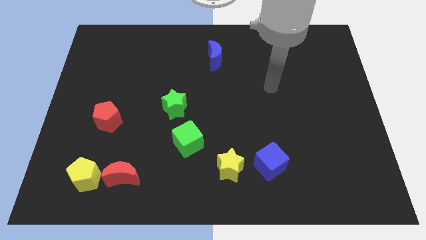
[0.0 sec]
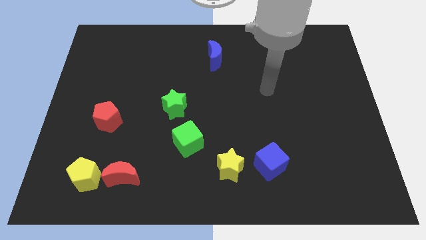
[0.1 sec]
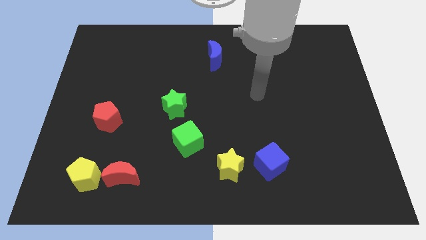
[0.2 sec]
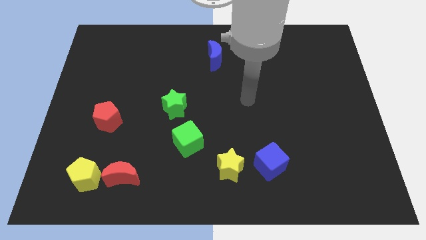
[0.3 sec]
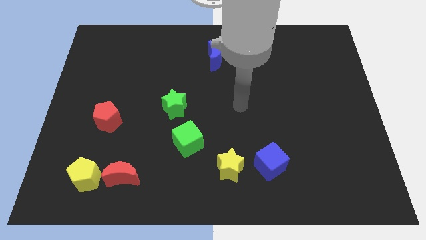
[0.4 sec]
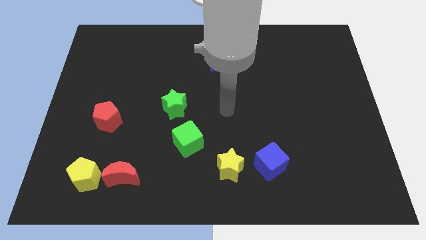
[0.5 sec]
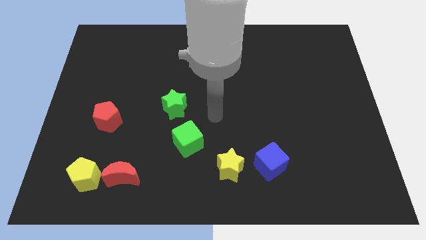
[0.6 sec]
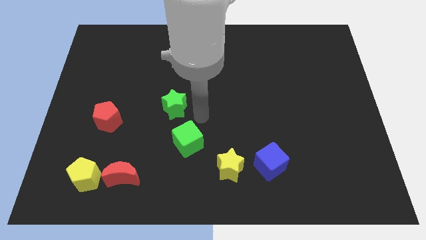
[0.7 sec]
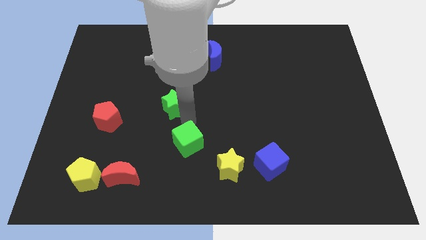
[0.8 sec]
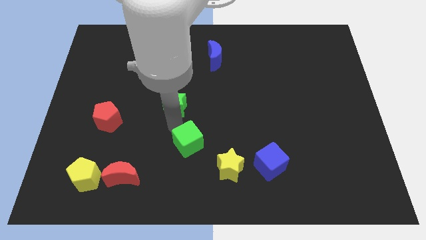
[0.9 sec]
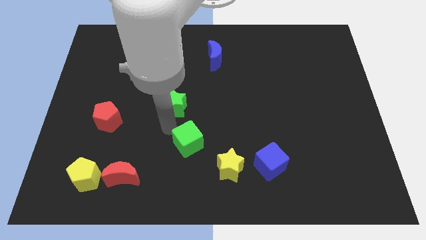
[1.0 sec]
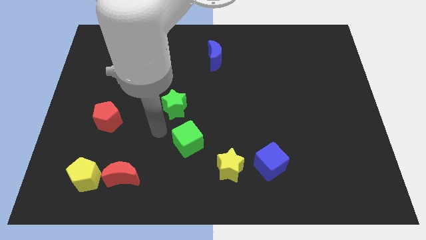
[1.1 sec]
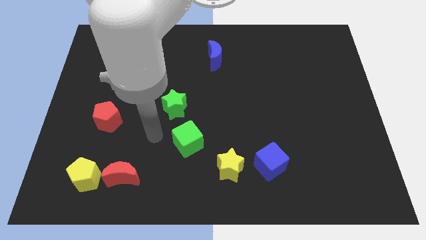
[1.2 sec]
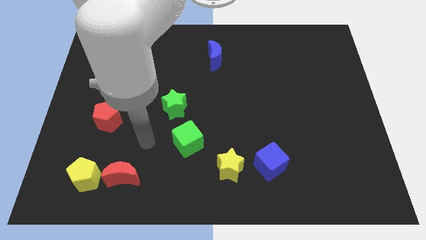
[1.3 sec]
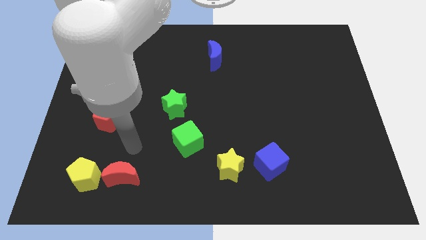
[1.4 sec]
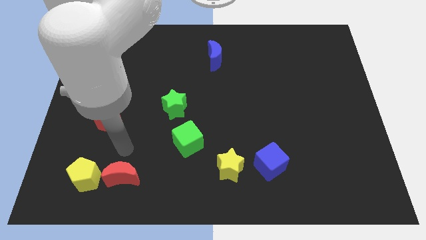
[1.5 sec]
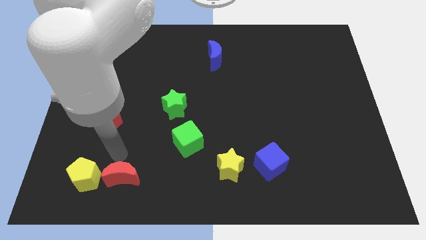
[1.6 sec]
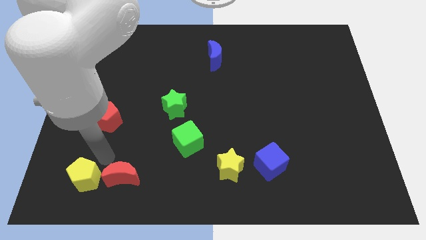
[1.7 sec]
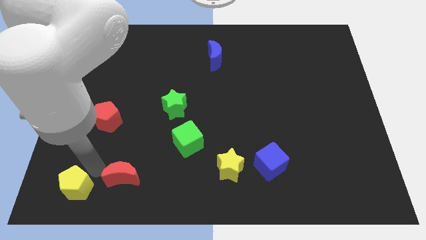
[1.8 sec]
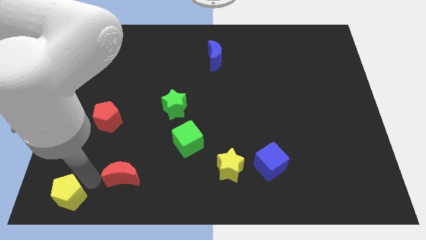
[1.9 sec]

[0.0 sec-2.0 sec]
separate the red moon from the yellow pentagon

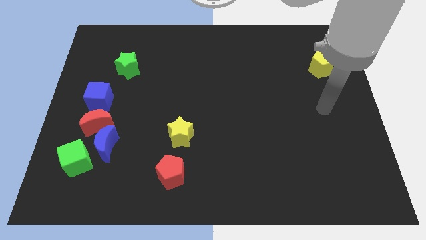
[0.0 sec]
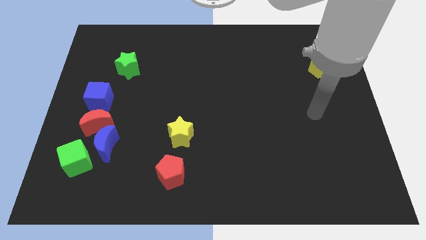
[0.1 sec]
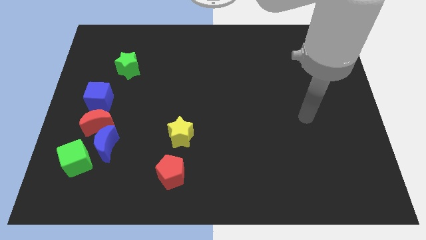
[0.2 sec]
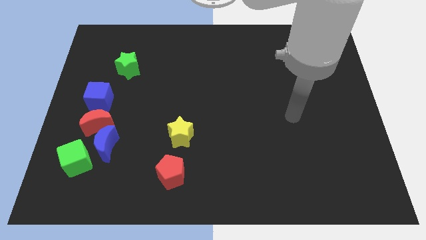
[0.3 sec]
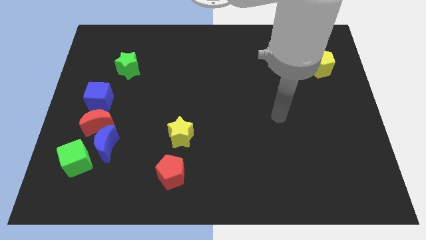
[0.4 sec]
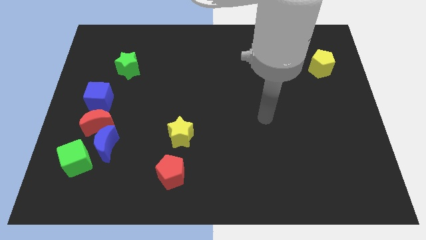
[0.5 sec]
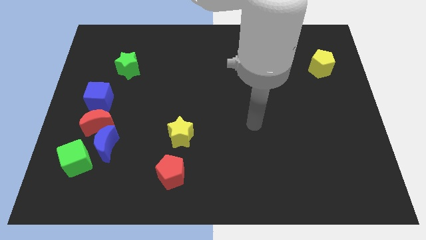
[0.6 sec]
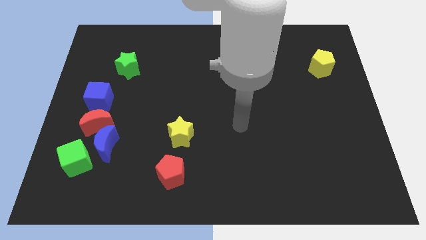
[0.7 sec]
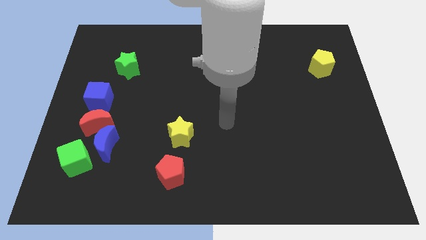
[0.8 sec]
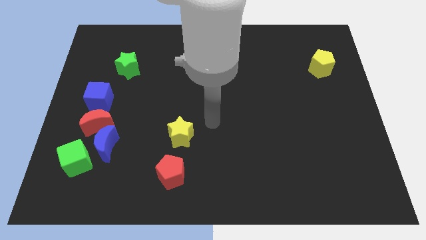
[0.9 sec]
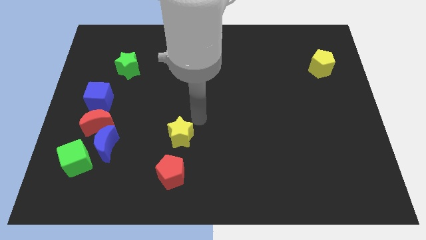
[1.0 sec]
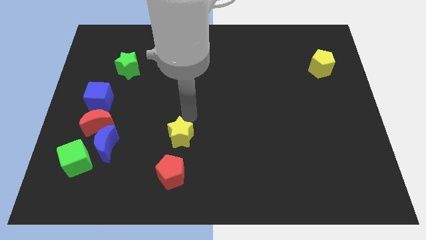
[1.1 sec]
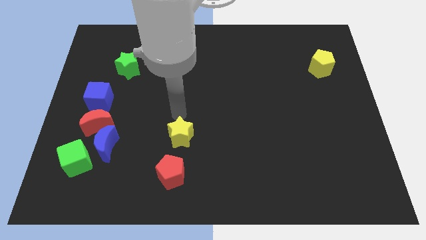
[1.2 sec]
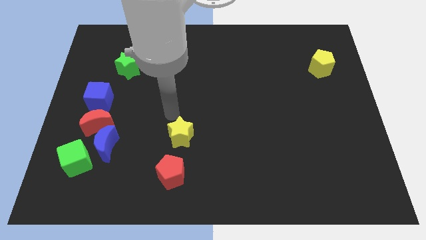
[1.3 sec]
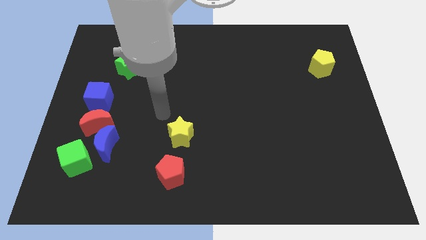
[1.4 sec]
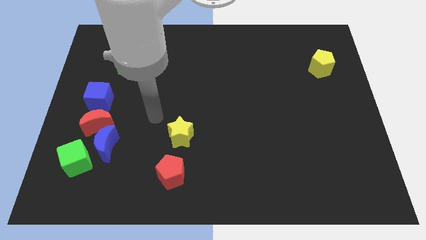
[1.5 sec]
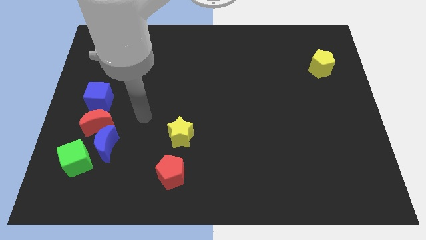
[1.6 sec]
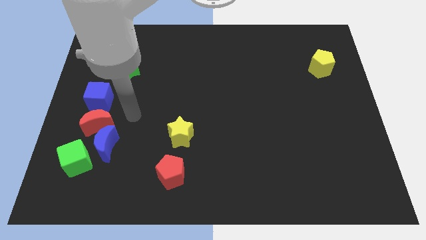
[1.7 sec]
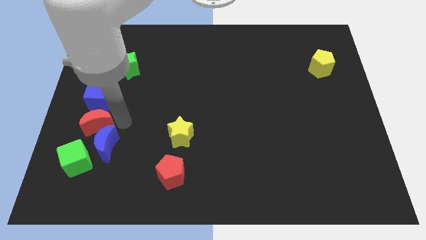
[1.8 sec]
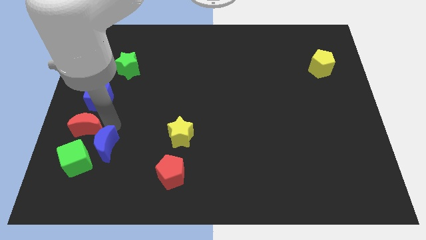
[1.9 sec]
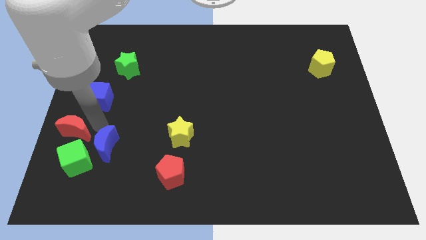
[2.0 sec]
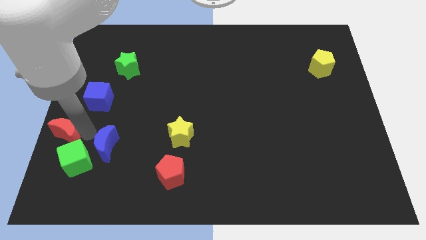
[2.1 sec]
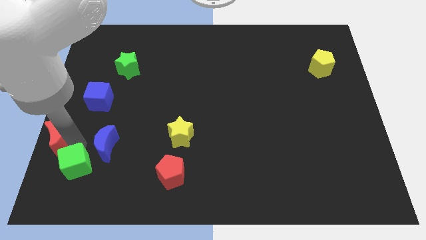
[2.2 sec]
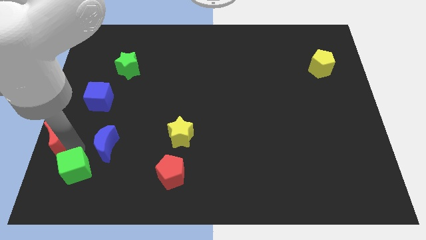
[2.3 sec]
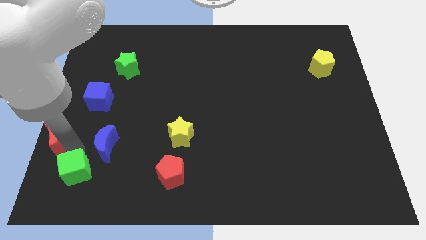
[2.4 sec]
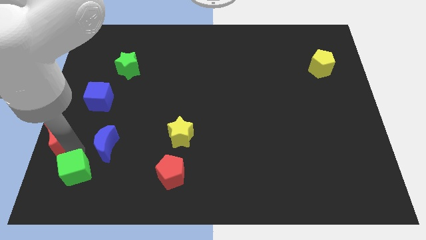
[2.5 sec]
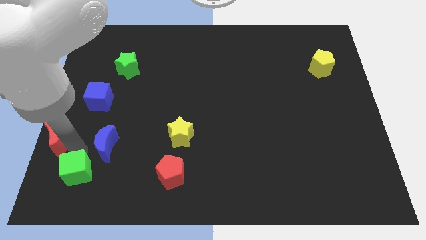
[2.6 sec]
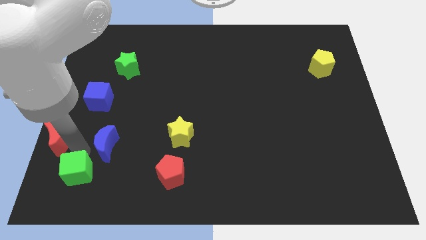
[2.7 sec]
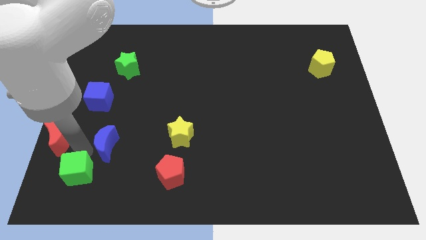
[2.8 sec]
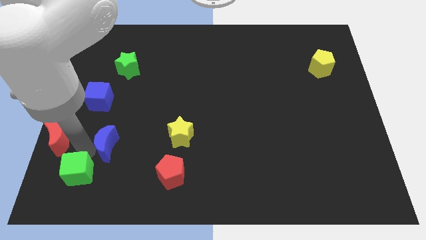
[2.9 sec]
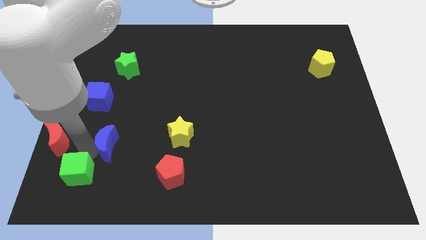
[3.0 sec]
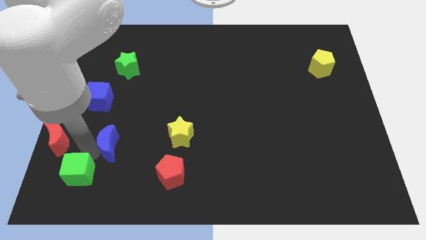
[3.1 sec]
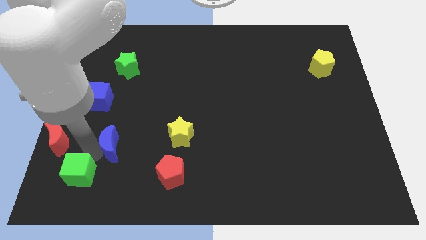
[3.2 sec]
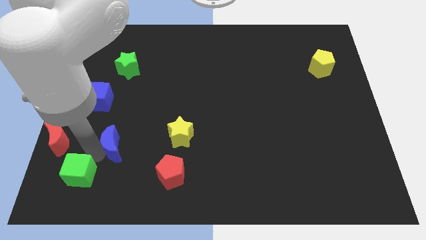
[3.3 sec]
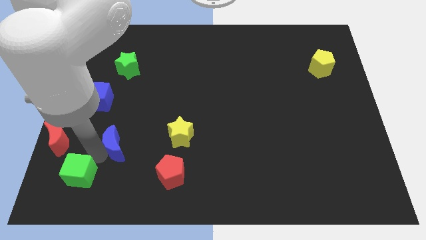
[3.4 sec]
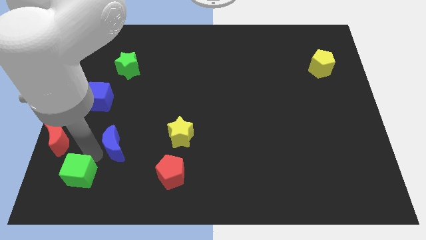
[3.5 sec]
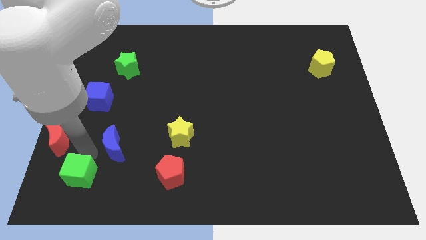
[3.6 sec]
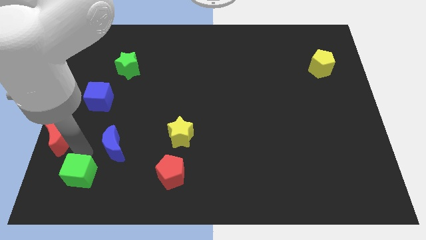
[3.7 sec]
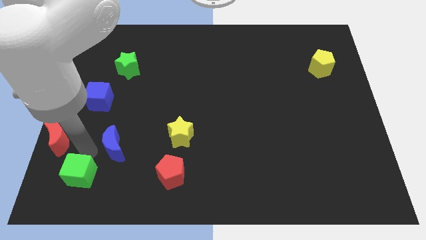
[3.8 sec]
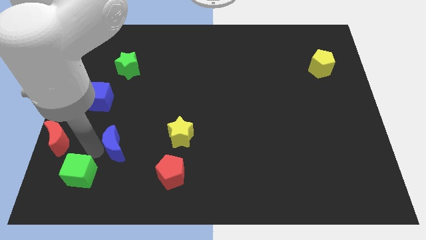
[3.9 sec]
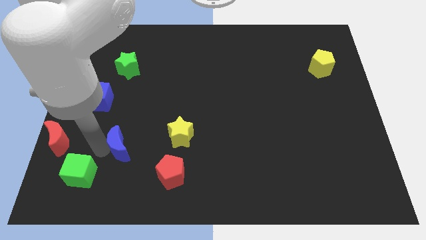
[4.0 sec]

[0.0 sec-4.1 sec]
move the blue moon away from the red moon and green cube

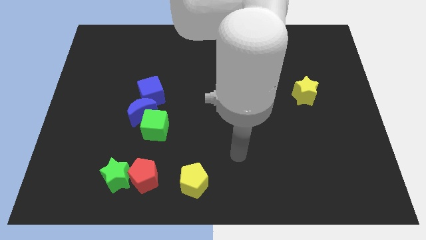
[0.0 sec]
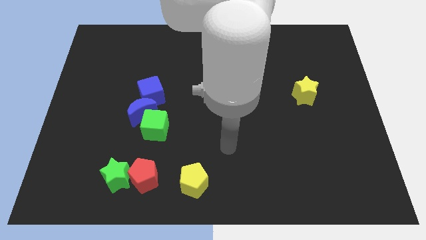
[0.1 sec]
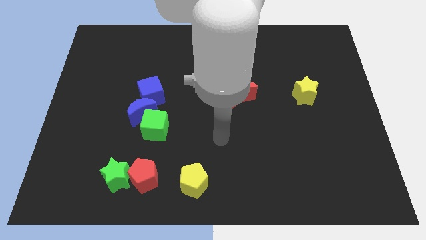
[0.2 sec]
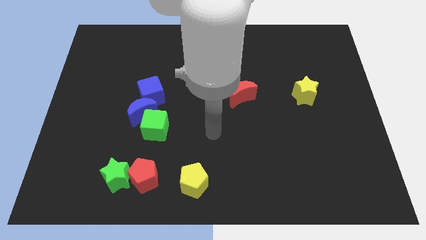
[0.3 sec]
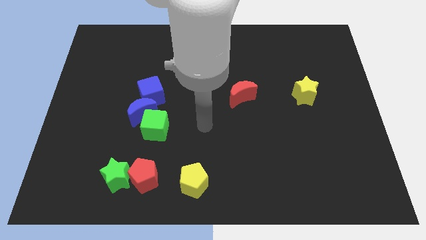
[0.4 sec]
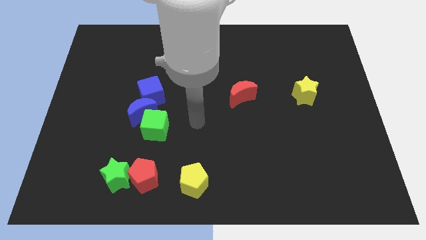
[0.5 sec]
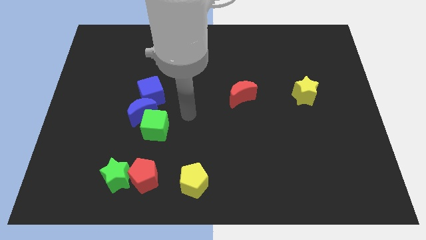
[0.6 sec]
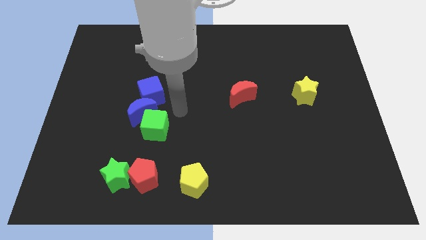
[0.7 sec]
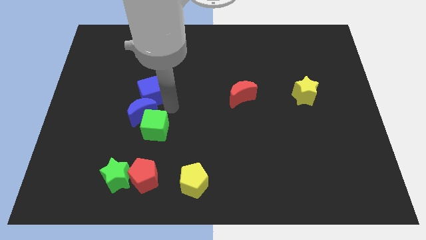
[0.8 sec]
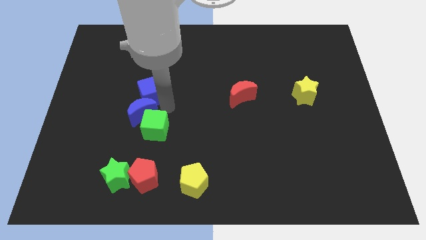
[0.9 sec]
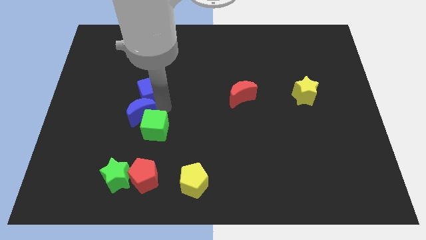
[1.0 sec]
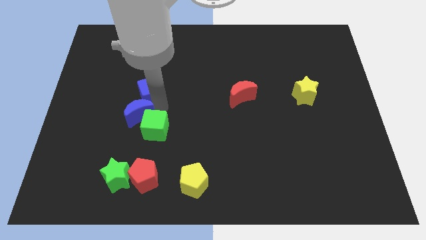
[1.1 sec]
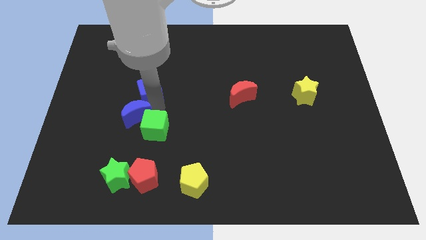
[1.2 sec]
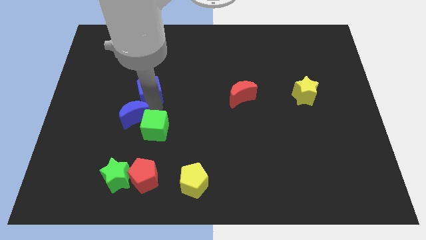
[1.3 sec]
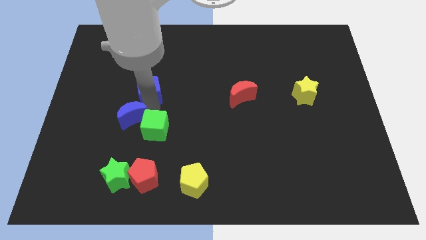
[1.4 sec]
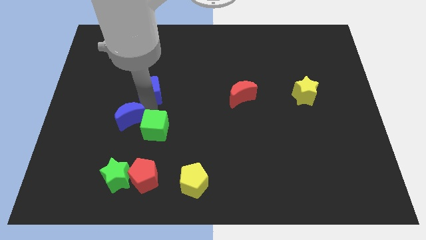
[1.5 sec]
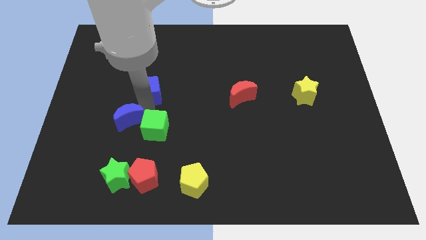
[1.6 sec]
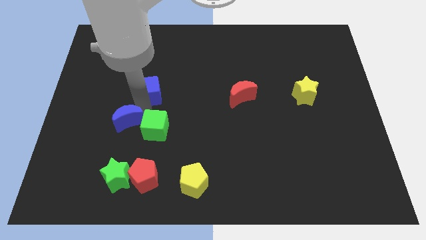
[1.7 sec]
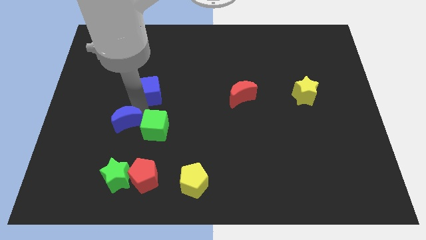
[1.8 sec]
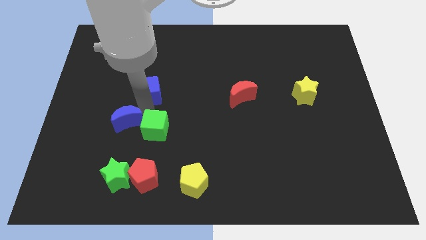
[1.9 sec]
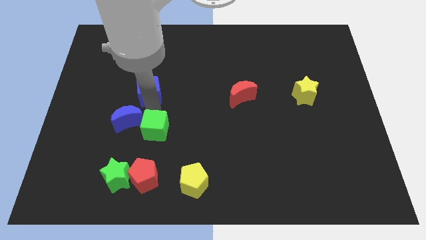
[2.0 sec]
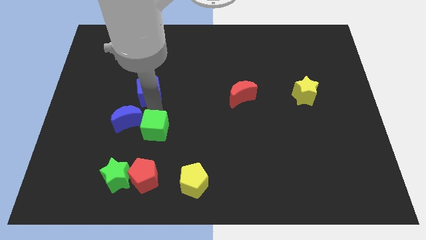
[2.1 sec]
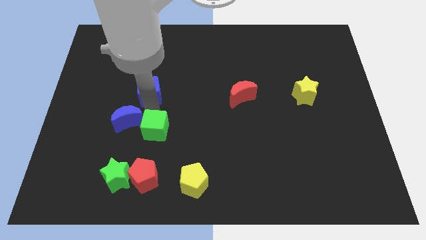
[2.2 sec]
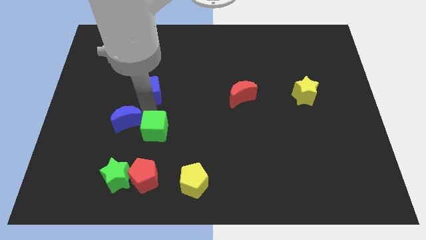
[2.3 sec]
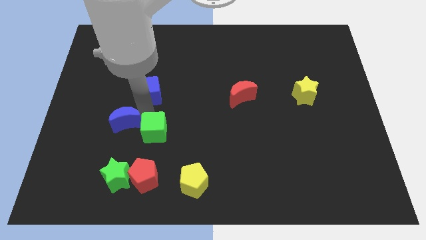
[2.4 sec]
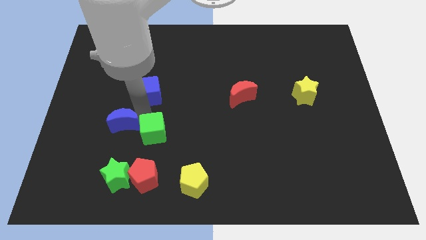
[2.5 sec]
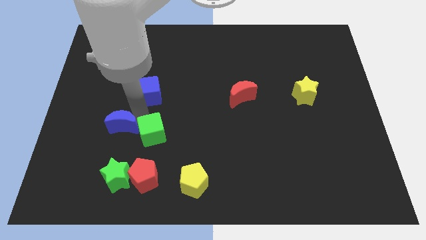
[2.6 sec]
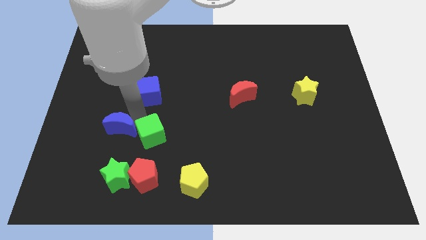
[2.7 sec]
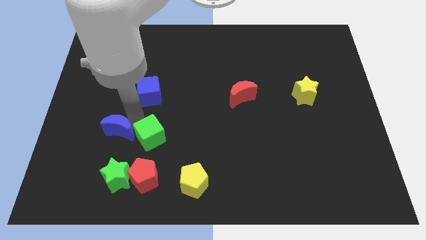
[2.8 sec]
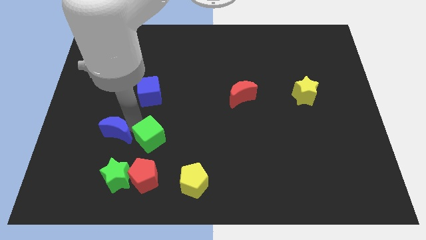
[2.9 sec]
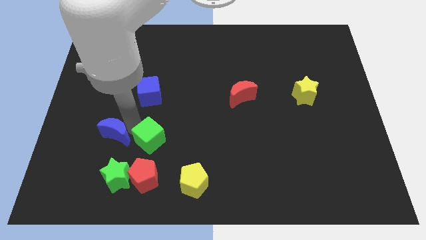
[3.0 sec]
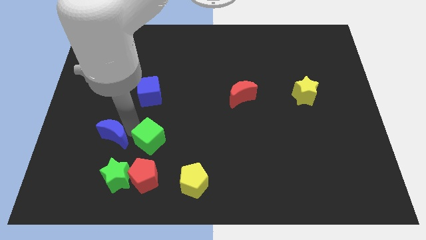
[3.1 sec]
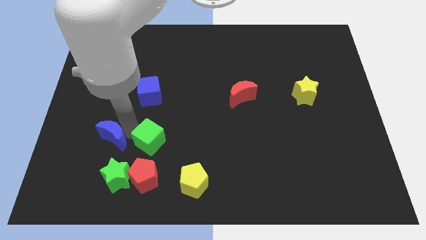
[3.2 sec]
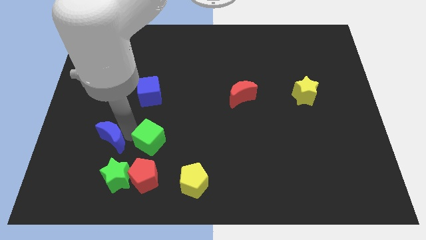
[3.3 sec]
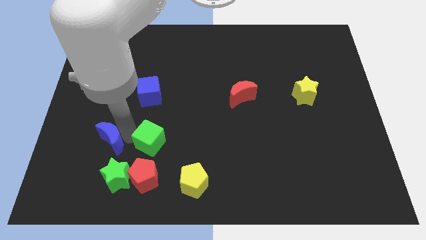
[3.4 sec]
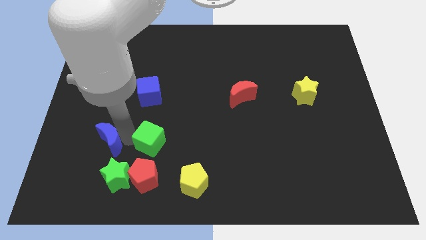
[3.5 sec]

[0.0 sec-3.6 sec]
pull the blue moon apart from the green cube and blue cube
